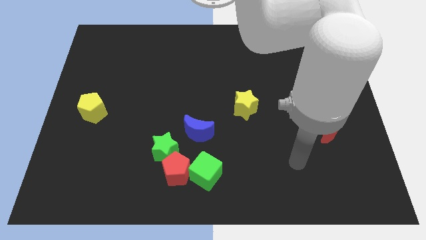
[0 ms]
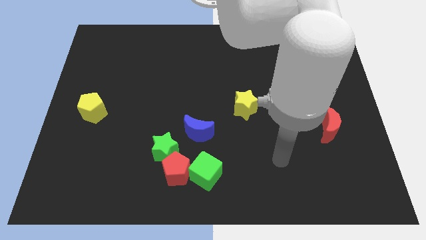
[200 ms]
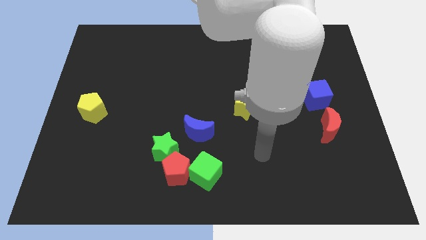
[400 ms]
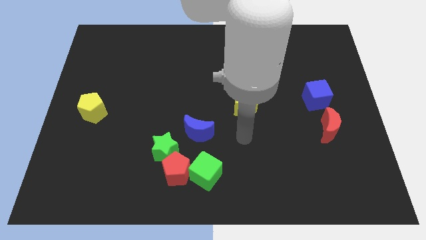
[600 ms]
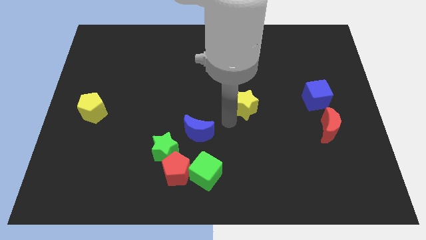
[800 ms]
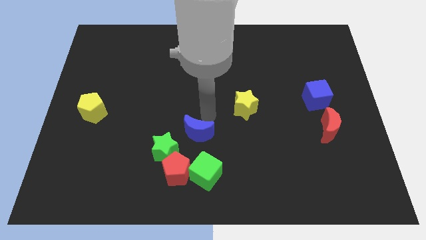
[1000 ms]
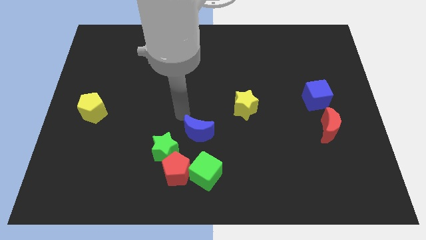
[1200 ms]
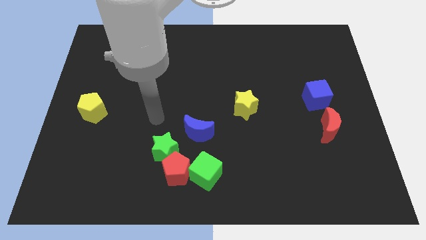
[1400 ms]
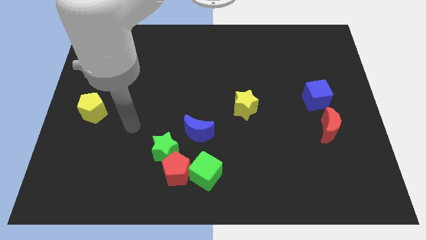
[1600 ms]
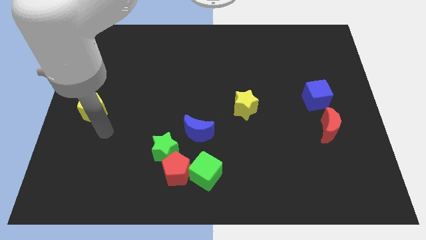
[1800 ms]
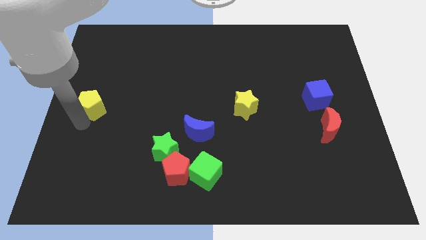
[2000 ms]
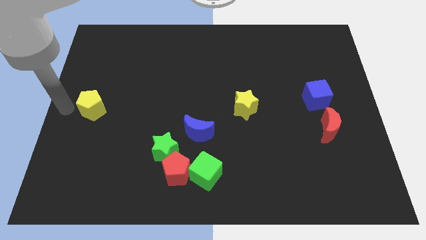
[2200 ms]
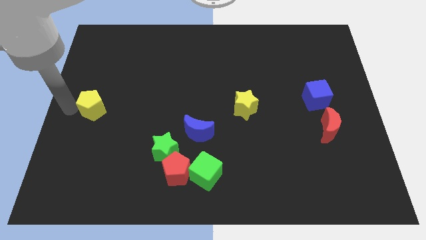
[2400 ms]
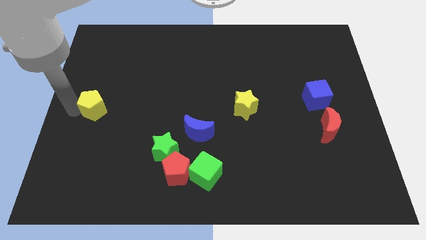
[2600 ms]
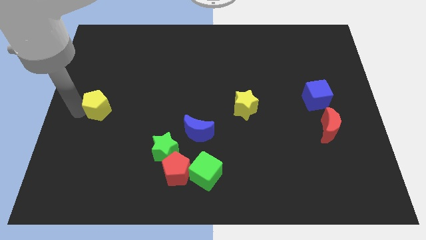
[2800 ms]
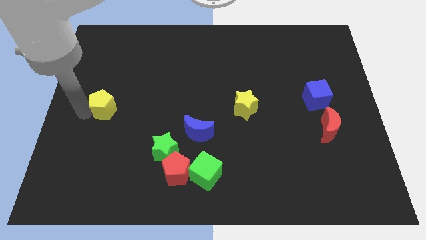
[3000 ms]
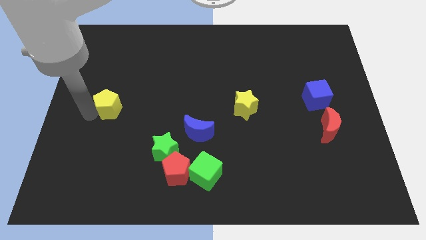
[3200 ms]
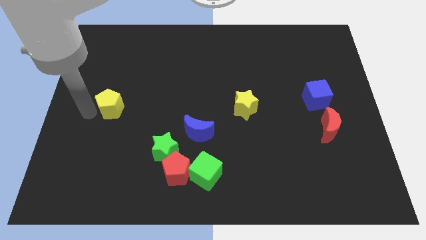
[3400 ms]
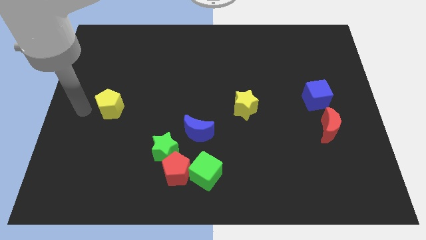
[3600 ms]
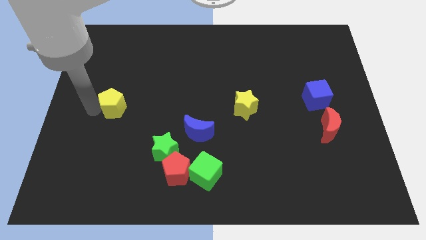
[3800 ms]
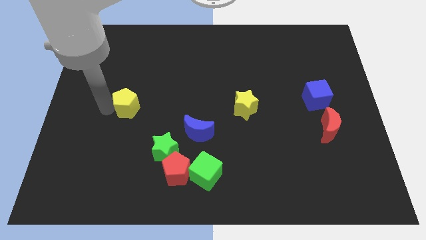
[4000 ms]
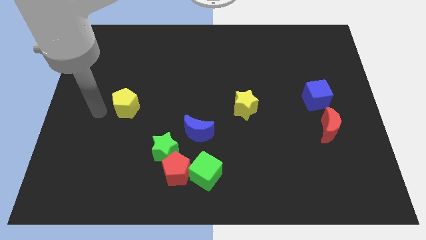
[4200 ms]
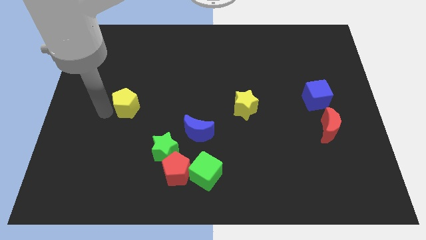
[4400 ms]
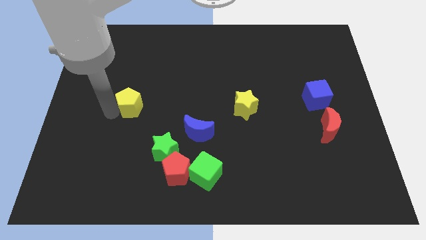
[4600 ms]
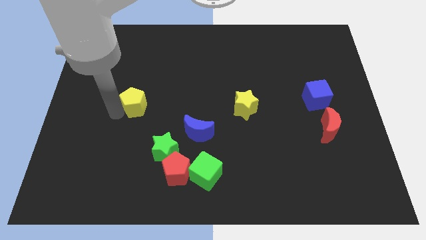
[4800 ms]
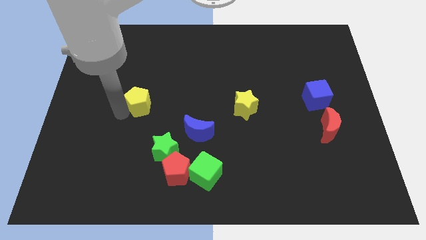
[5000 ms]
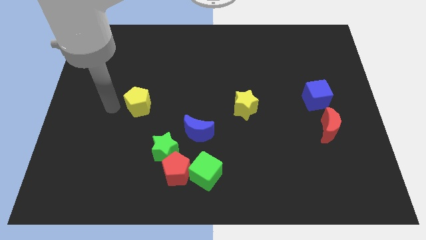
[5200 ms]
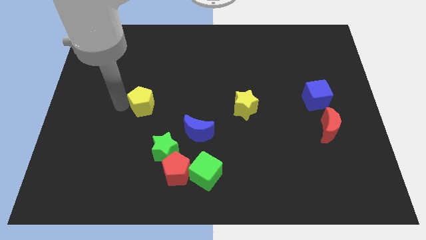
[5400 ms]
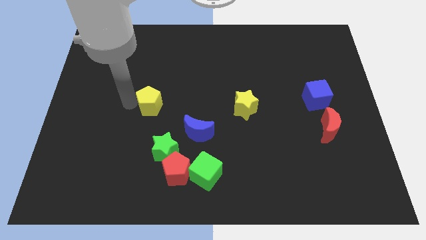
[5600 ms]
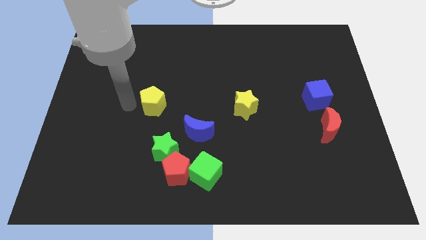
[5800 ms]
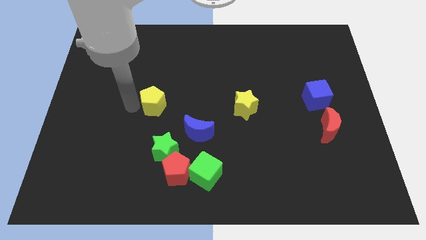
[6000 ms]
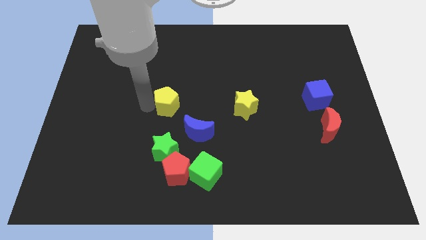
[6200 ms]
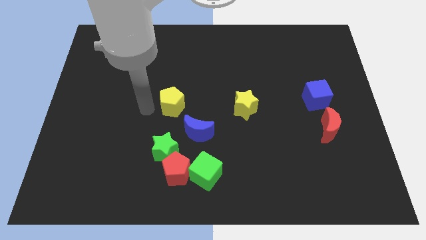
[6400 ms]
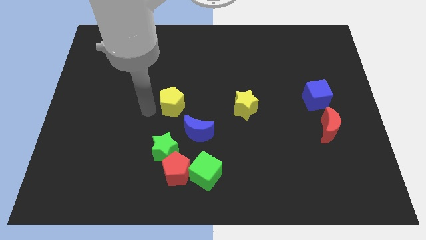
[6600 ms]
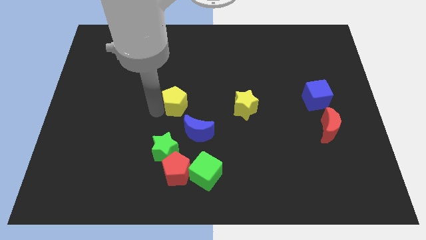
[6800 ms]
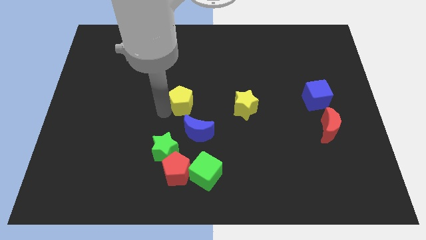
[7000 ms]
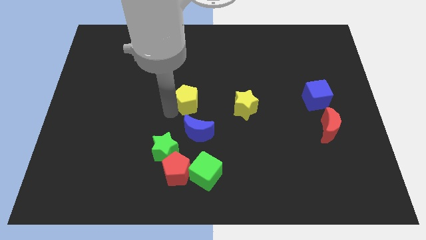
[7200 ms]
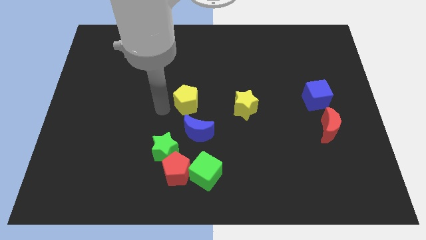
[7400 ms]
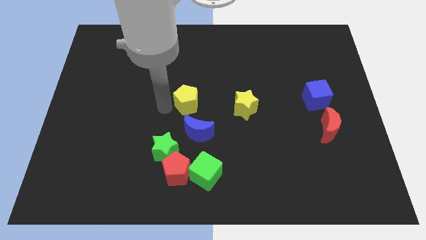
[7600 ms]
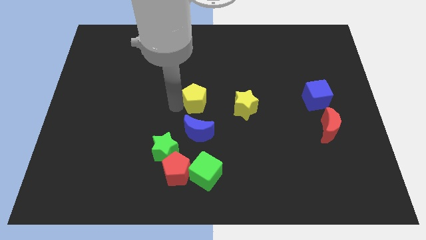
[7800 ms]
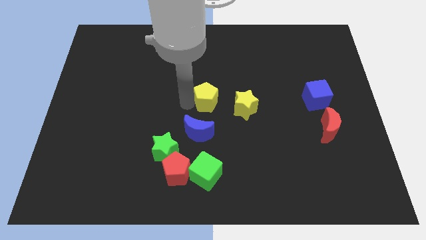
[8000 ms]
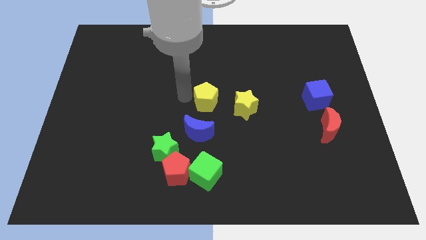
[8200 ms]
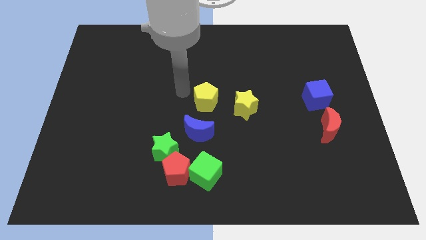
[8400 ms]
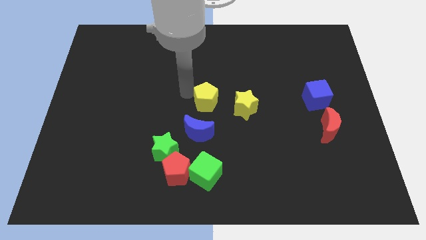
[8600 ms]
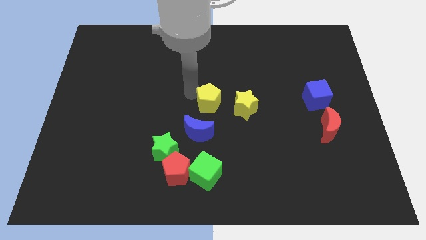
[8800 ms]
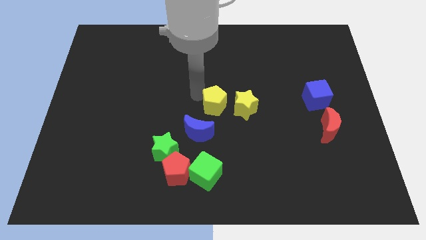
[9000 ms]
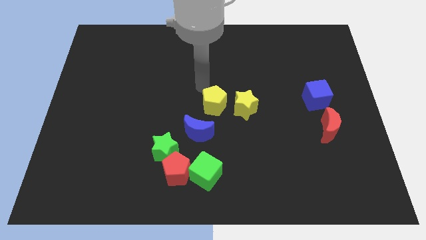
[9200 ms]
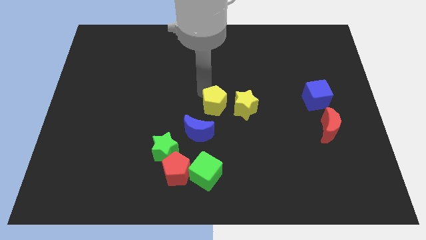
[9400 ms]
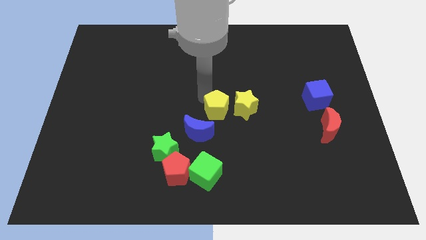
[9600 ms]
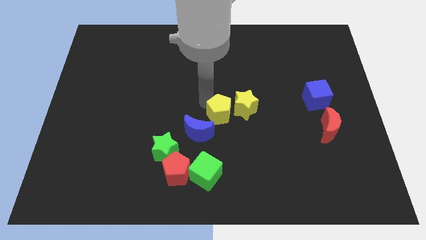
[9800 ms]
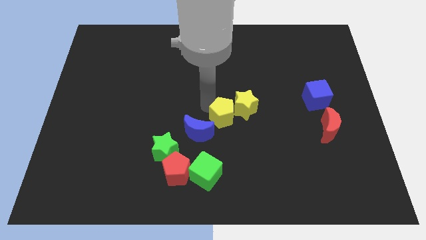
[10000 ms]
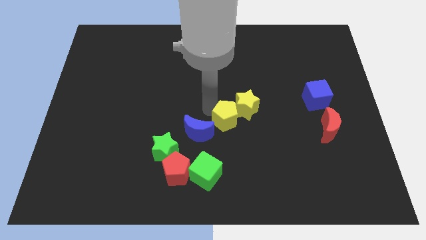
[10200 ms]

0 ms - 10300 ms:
slide the yellow pentagon to the bottom of the yellow star

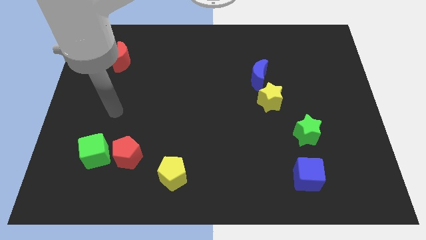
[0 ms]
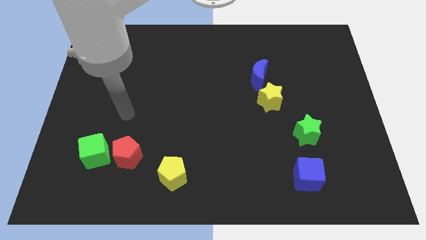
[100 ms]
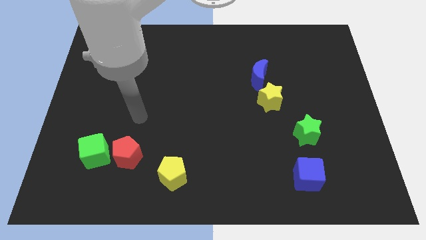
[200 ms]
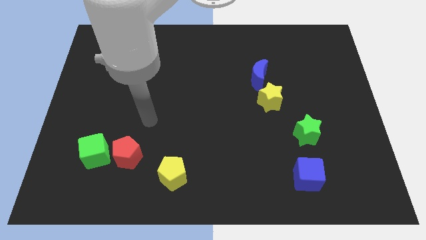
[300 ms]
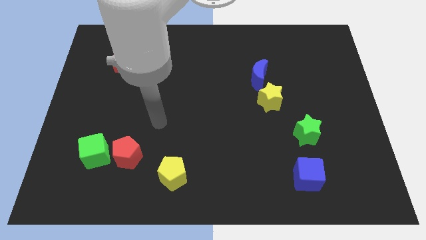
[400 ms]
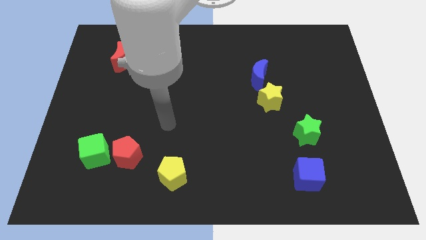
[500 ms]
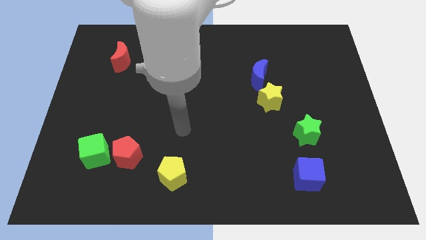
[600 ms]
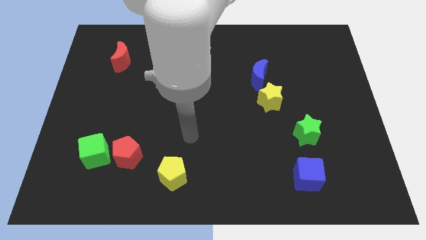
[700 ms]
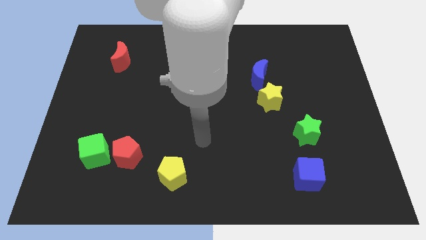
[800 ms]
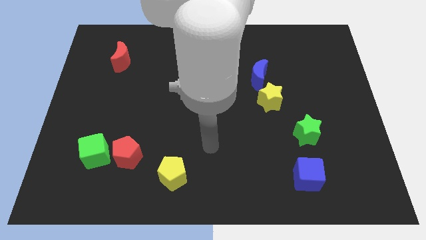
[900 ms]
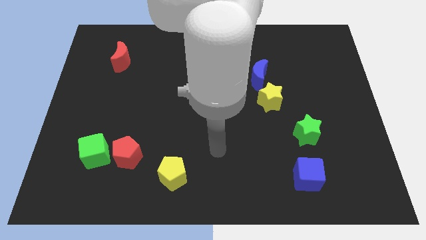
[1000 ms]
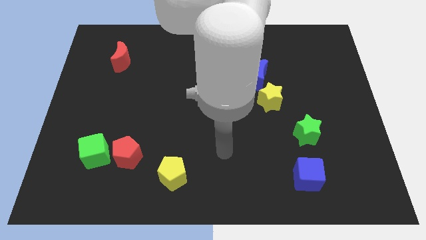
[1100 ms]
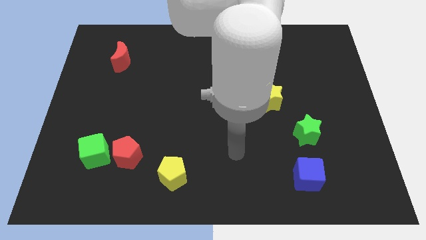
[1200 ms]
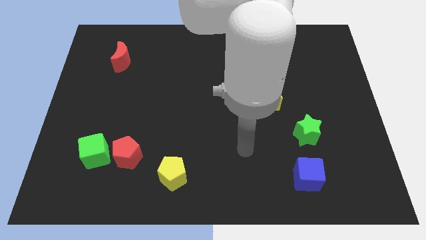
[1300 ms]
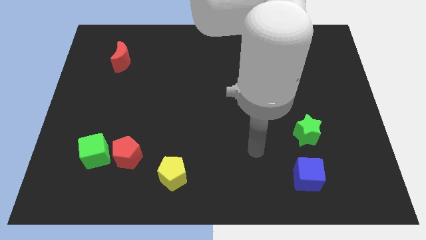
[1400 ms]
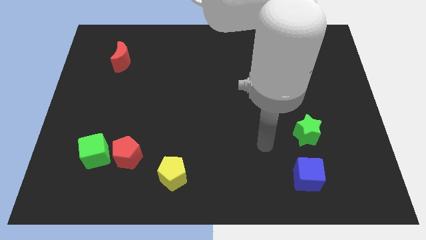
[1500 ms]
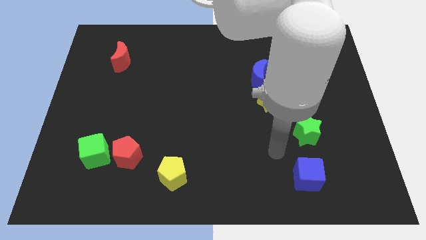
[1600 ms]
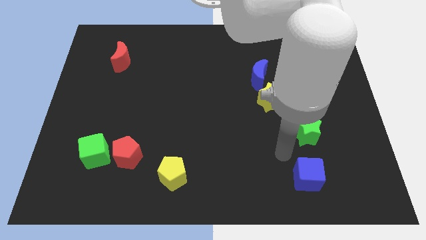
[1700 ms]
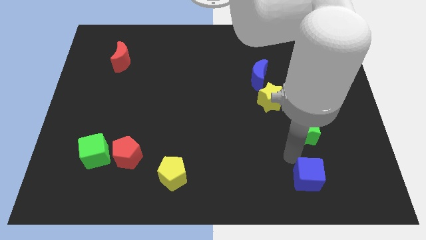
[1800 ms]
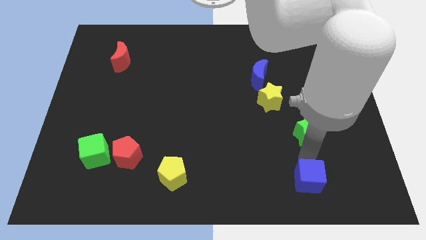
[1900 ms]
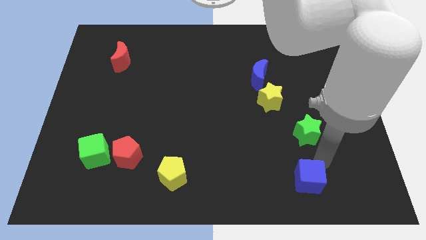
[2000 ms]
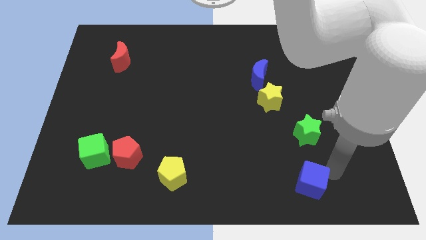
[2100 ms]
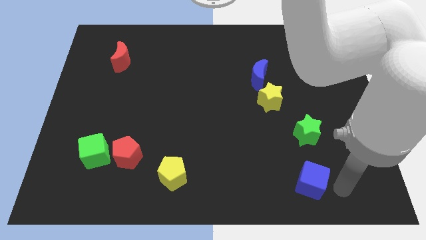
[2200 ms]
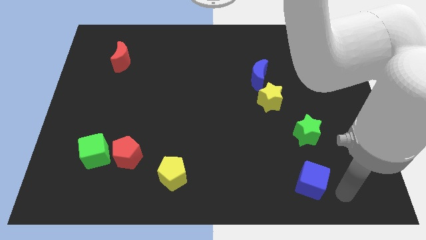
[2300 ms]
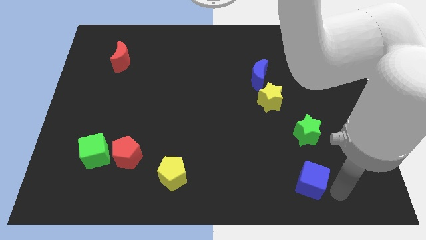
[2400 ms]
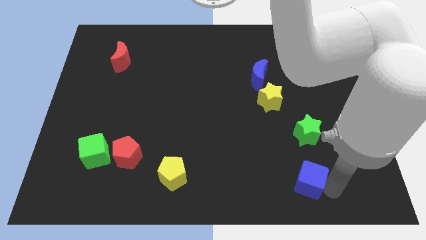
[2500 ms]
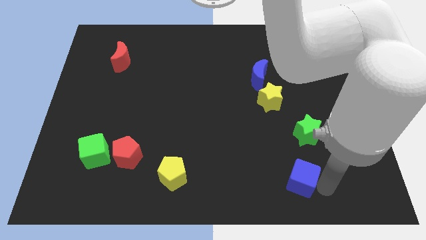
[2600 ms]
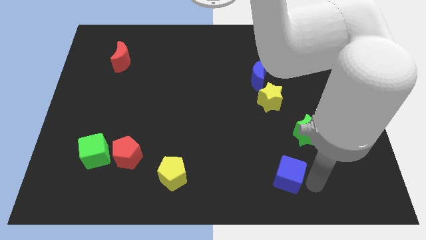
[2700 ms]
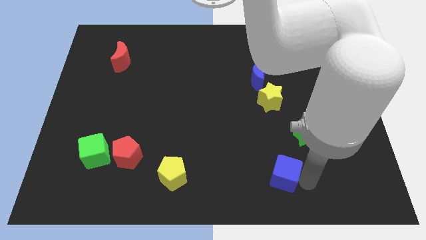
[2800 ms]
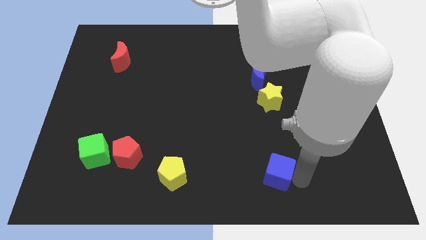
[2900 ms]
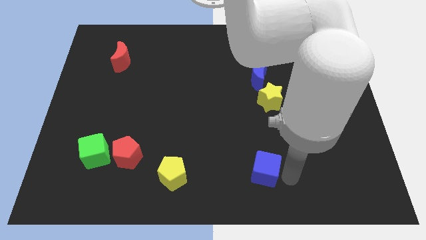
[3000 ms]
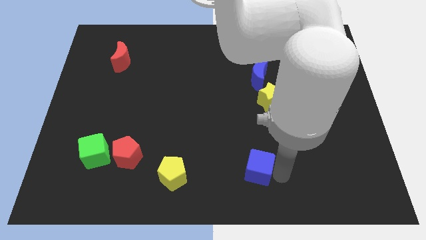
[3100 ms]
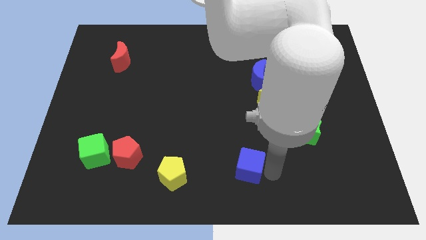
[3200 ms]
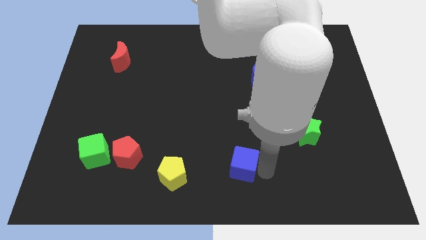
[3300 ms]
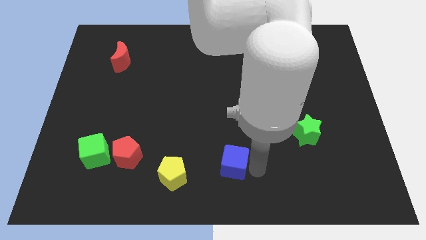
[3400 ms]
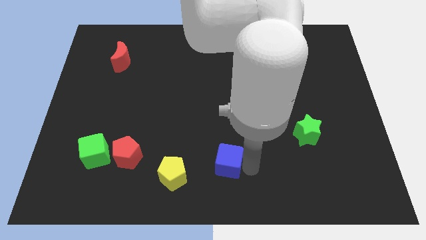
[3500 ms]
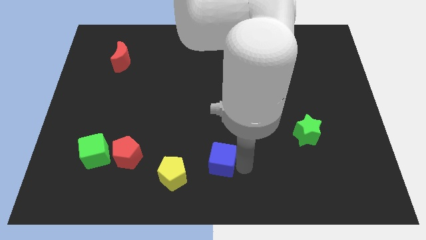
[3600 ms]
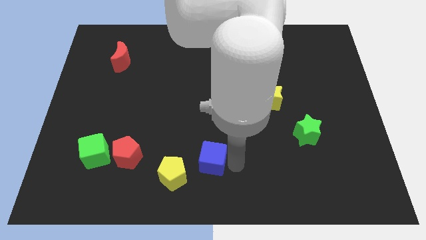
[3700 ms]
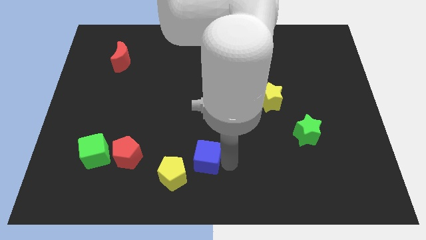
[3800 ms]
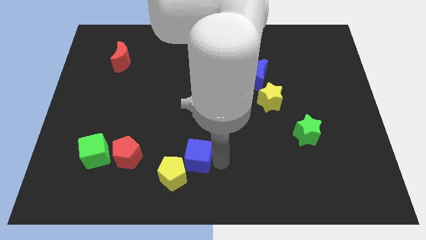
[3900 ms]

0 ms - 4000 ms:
slide the blue cube just right of the red pentagon
